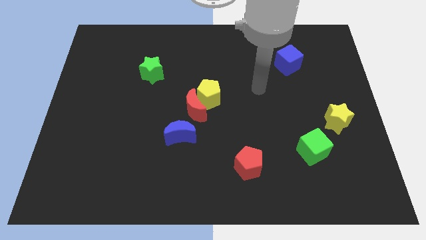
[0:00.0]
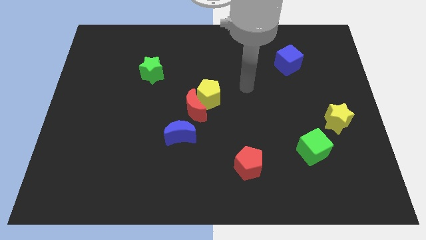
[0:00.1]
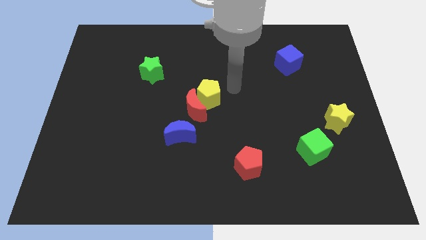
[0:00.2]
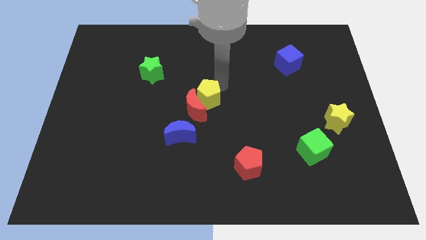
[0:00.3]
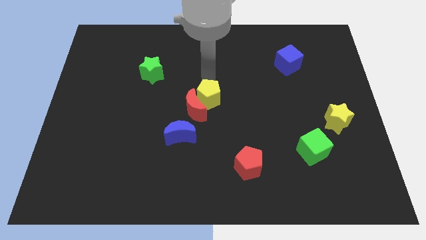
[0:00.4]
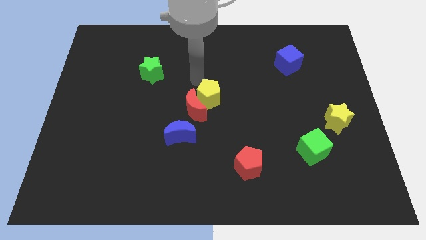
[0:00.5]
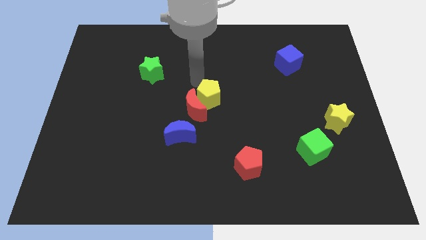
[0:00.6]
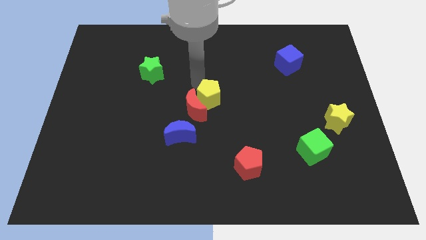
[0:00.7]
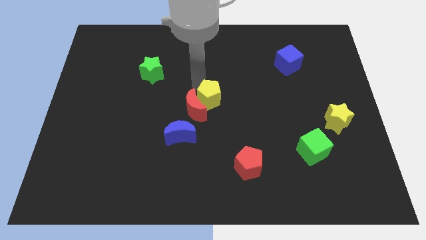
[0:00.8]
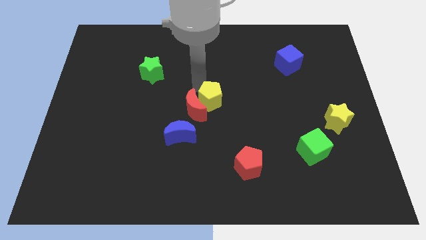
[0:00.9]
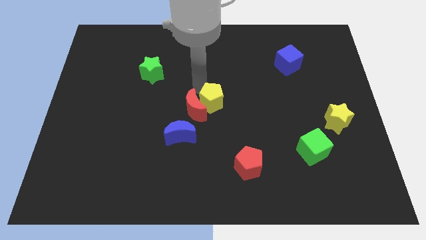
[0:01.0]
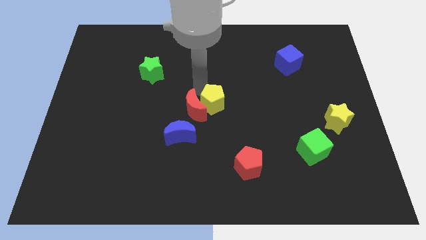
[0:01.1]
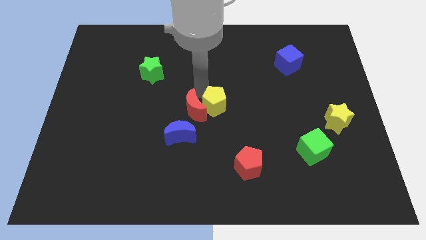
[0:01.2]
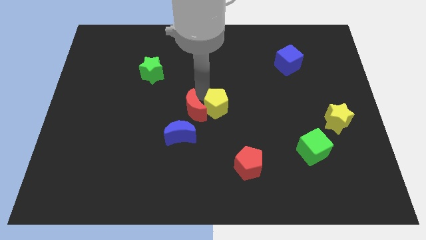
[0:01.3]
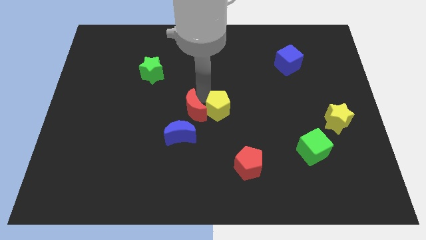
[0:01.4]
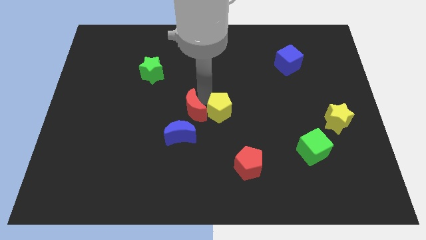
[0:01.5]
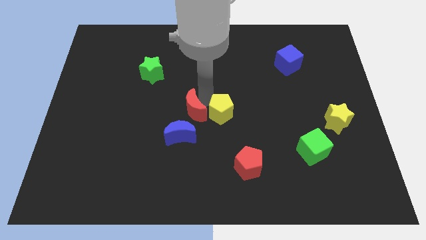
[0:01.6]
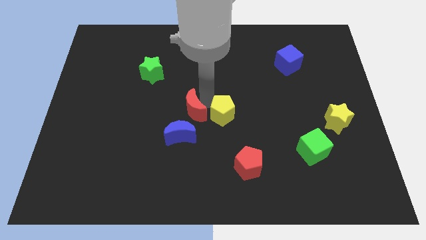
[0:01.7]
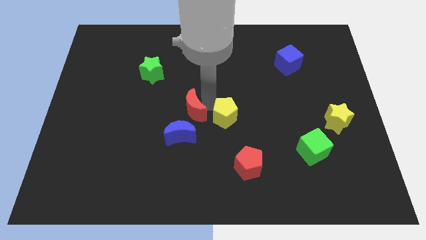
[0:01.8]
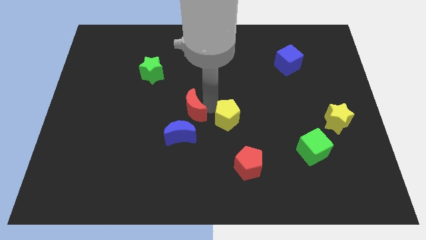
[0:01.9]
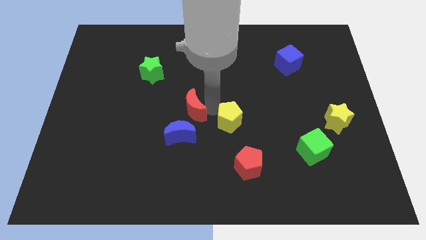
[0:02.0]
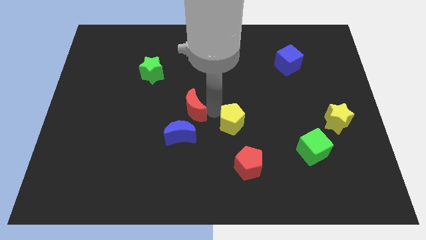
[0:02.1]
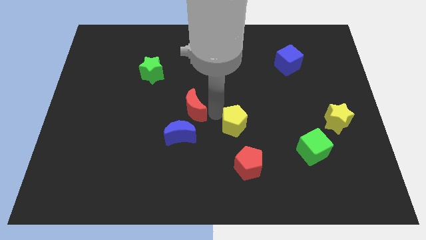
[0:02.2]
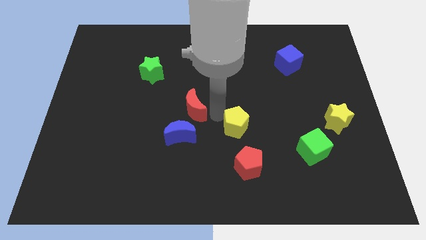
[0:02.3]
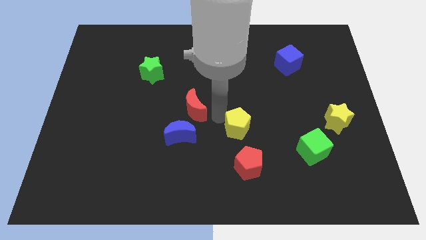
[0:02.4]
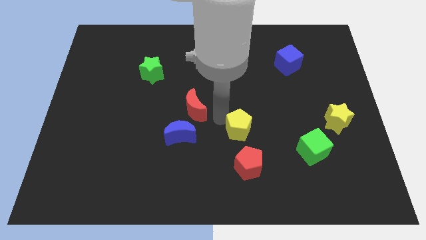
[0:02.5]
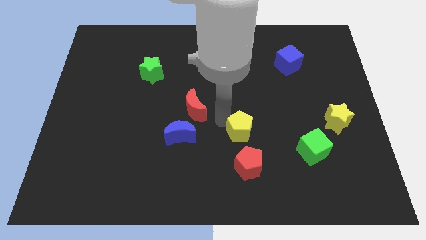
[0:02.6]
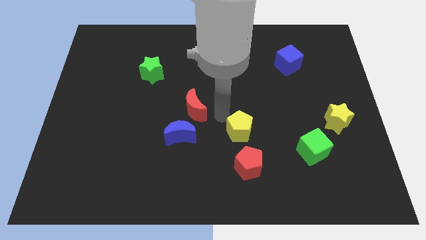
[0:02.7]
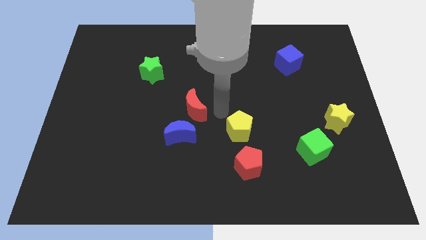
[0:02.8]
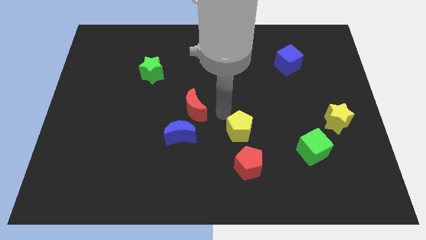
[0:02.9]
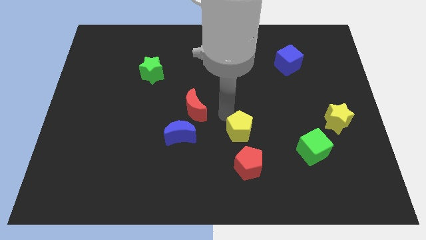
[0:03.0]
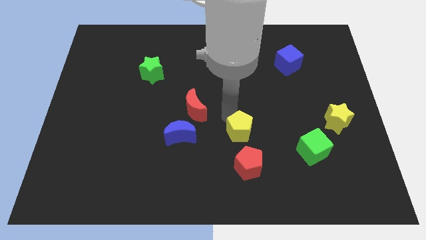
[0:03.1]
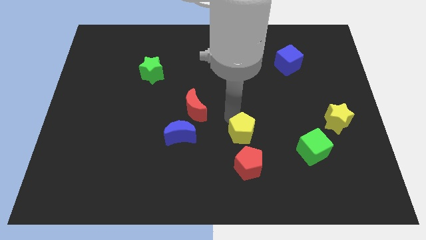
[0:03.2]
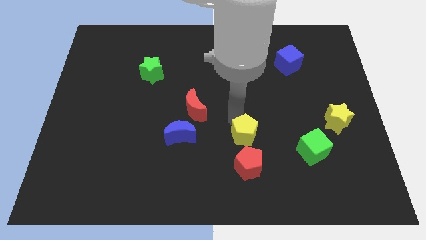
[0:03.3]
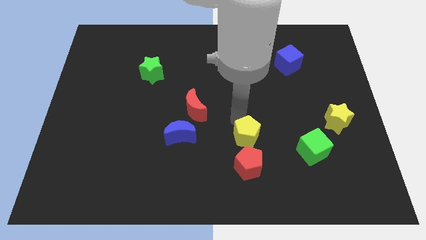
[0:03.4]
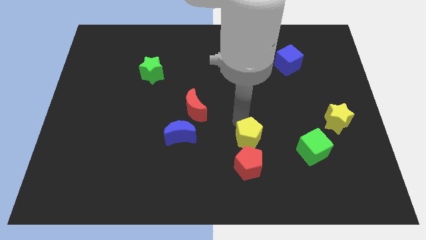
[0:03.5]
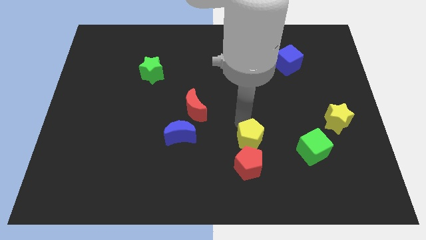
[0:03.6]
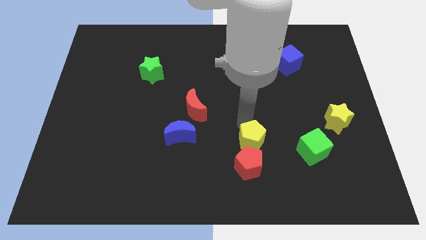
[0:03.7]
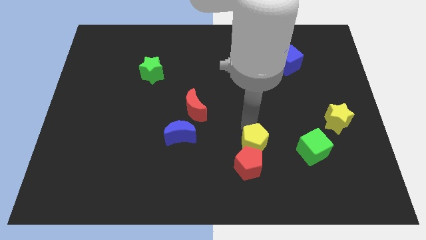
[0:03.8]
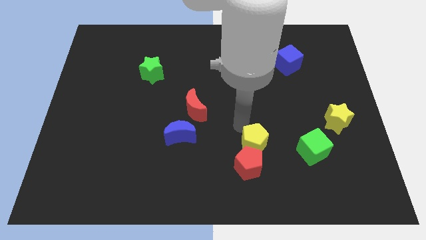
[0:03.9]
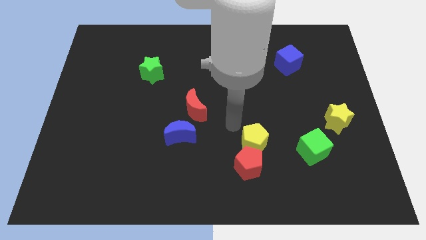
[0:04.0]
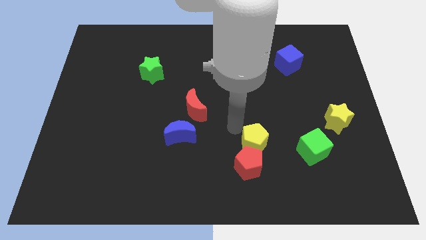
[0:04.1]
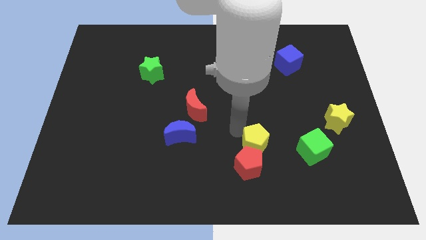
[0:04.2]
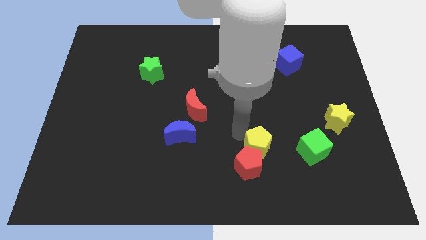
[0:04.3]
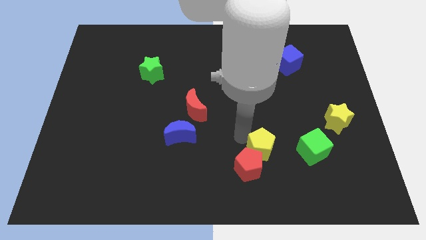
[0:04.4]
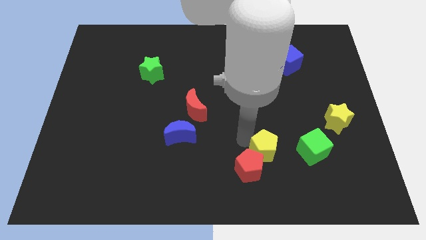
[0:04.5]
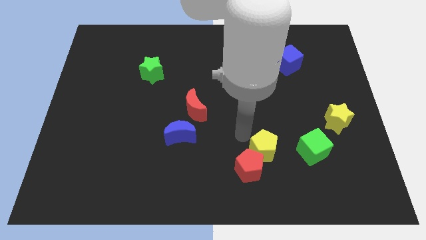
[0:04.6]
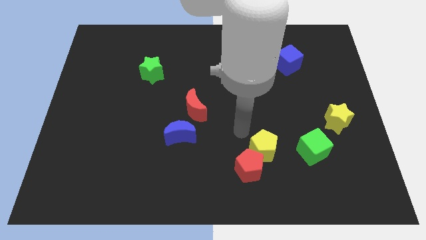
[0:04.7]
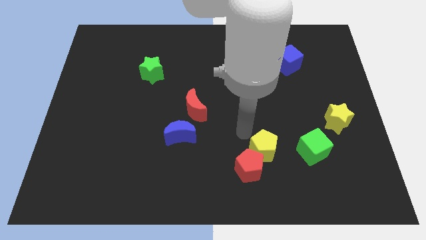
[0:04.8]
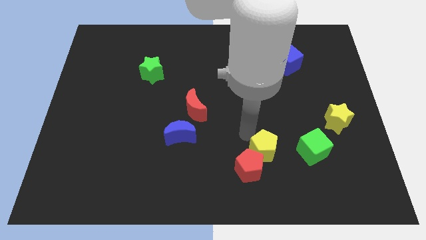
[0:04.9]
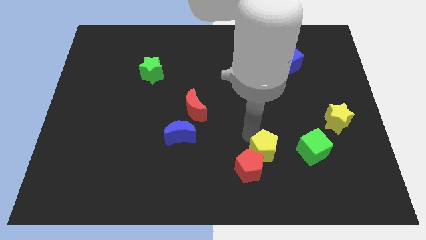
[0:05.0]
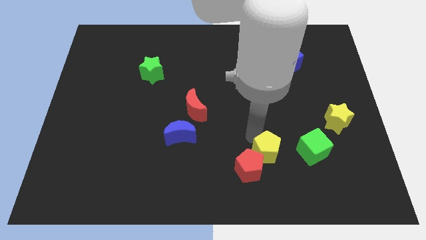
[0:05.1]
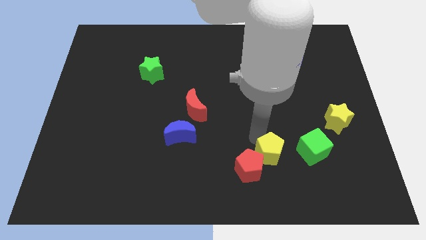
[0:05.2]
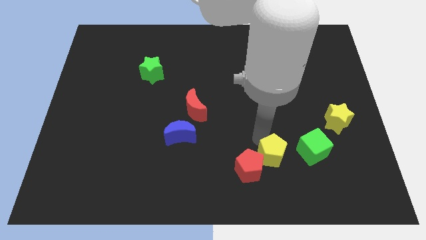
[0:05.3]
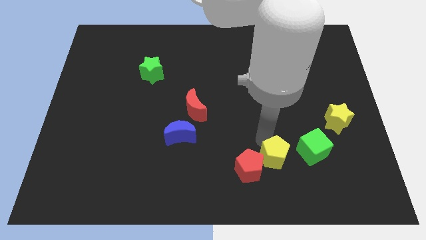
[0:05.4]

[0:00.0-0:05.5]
put the yellow pentagon to the bottom left of the green cube

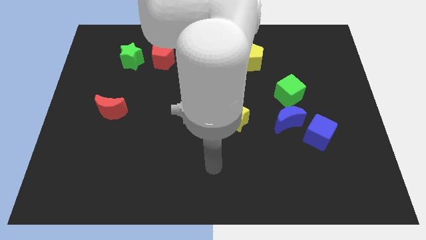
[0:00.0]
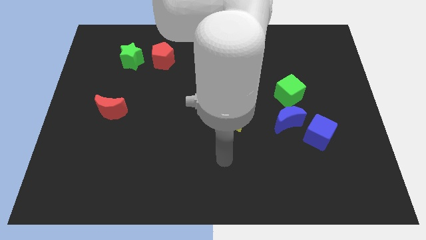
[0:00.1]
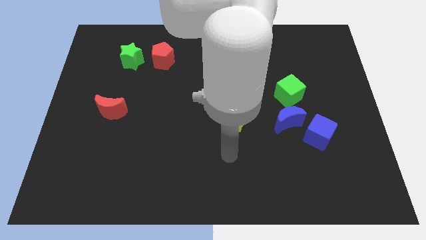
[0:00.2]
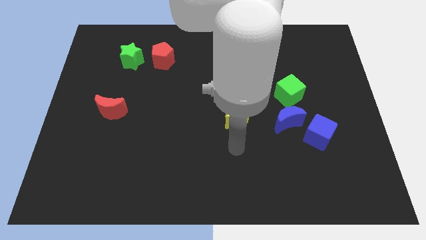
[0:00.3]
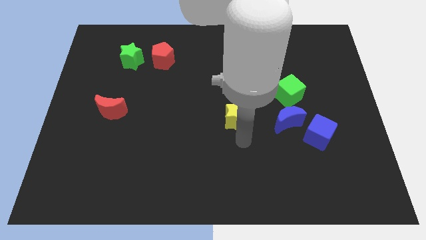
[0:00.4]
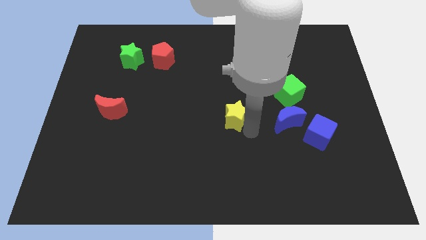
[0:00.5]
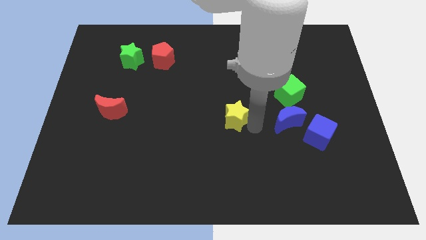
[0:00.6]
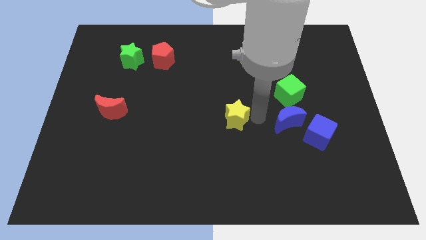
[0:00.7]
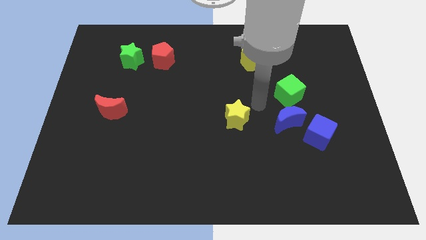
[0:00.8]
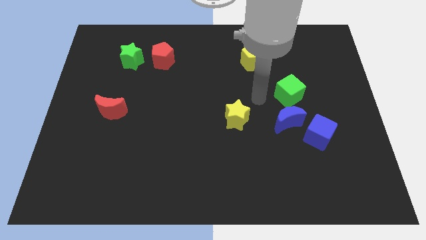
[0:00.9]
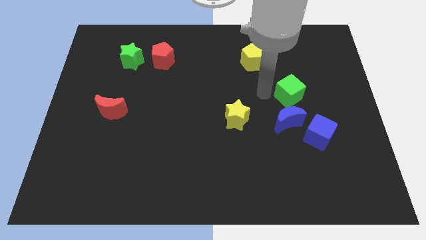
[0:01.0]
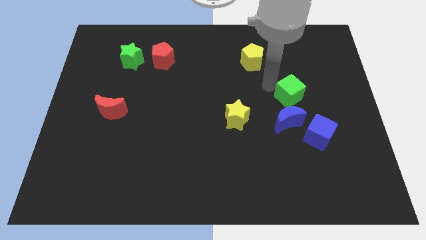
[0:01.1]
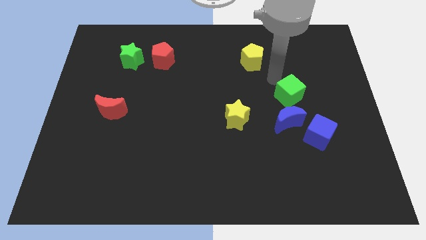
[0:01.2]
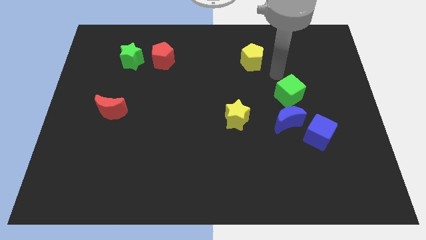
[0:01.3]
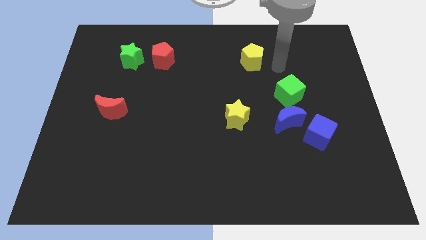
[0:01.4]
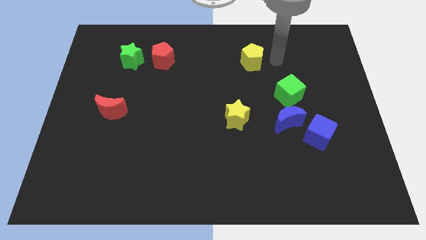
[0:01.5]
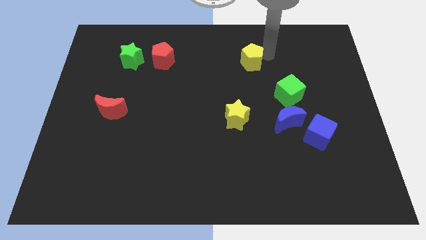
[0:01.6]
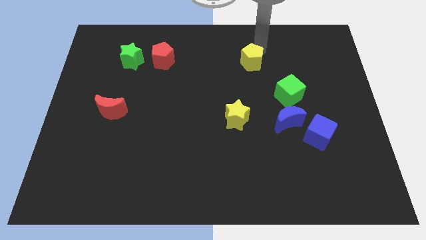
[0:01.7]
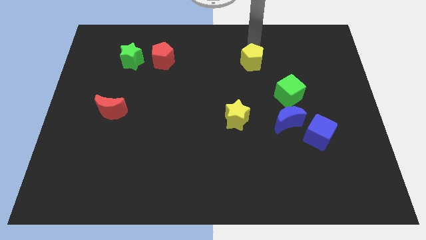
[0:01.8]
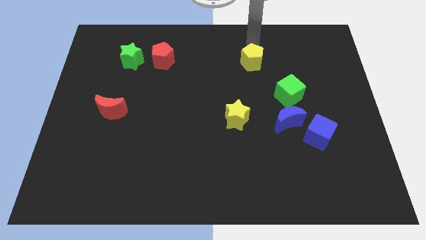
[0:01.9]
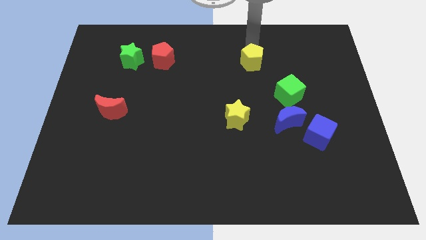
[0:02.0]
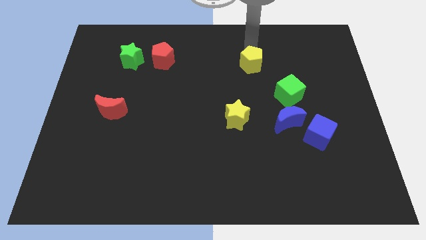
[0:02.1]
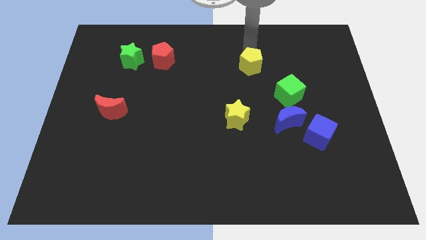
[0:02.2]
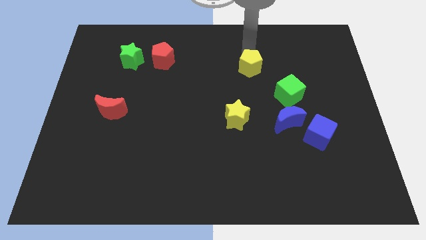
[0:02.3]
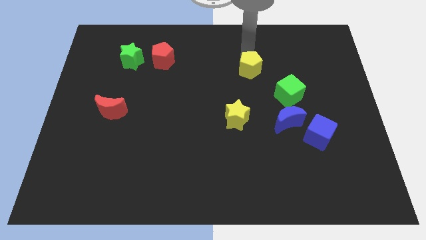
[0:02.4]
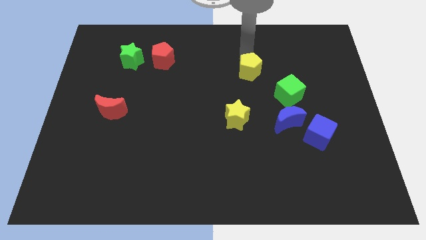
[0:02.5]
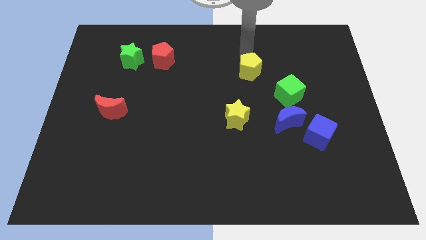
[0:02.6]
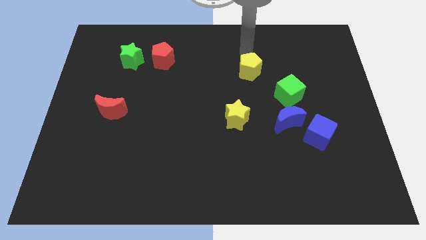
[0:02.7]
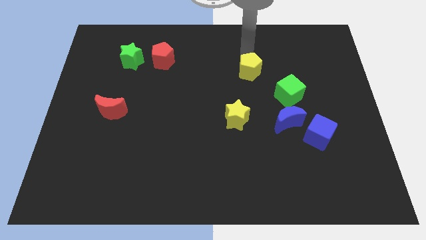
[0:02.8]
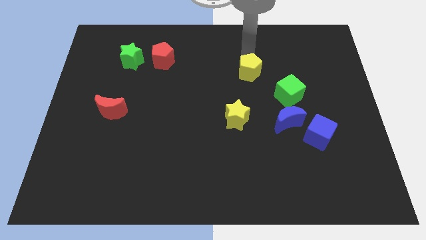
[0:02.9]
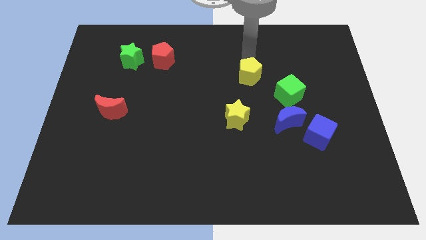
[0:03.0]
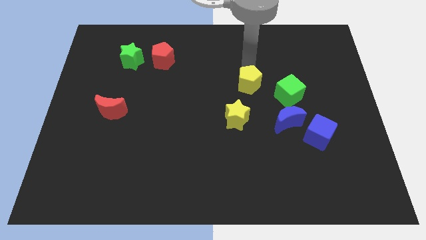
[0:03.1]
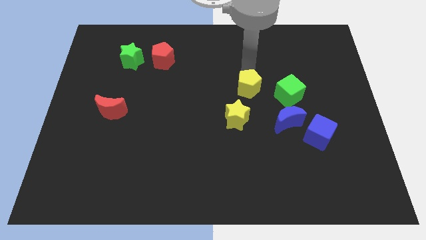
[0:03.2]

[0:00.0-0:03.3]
move the yellow pentagon to the top right side of the yellow star
